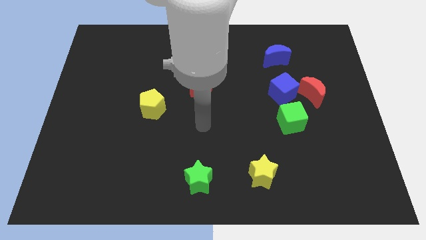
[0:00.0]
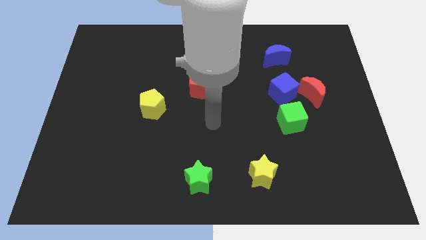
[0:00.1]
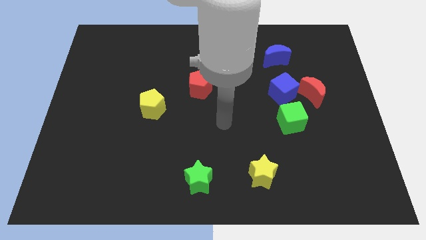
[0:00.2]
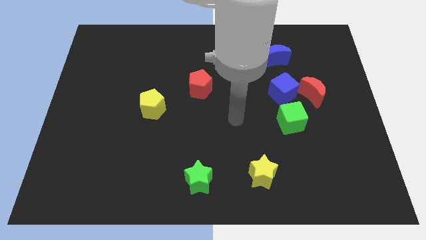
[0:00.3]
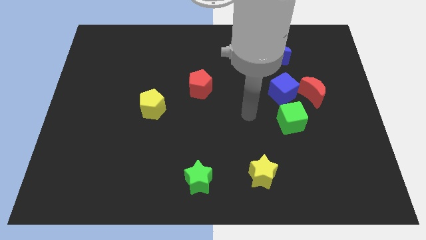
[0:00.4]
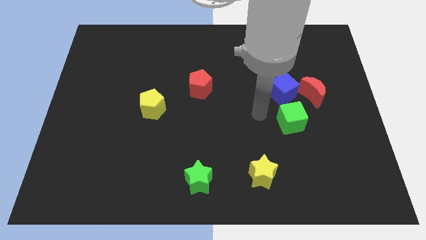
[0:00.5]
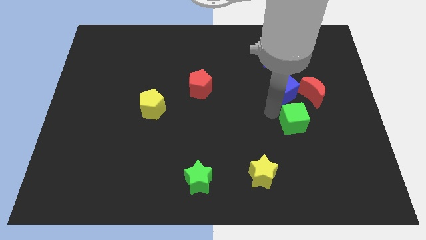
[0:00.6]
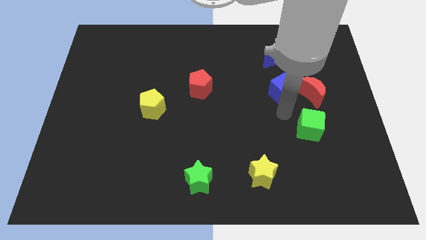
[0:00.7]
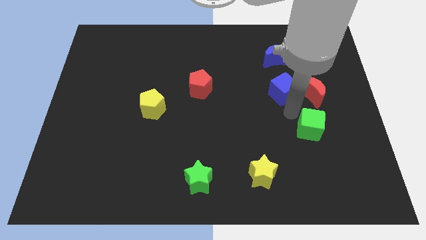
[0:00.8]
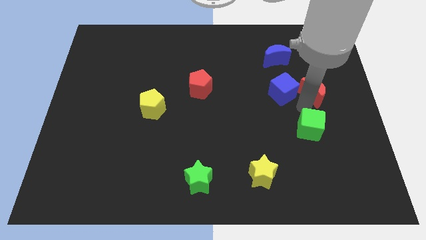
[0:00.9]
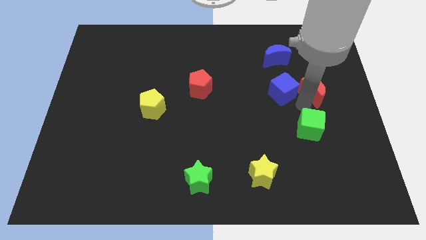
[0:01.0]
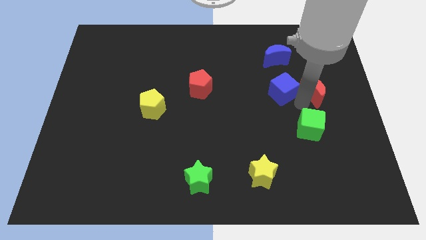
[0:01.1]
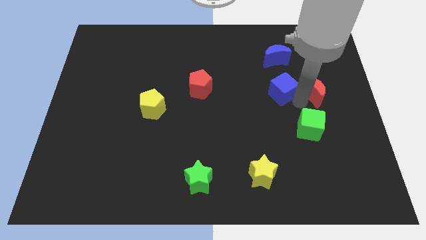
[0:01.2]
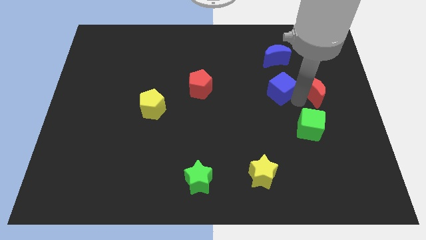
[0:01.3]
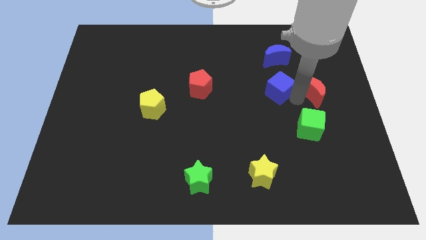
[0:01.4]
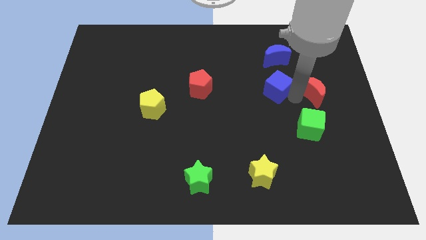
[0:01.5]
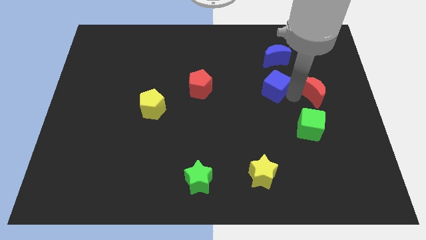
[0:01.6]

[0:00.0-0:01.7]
separate the blue cube from the red moon and green cube

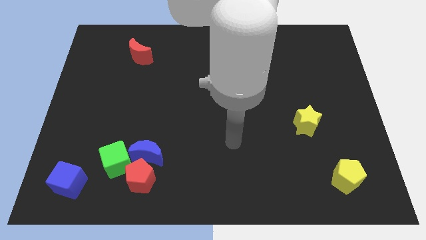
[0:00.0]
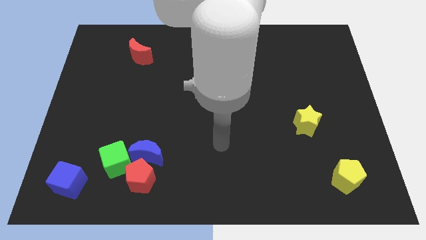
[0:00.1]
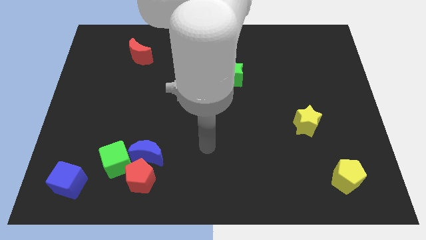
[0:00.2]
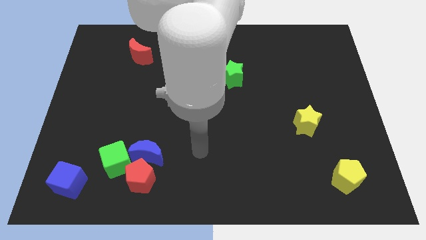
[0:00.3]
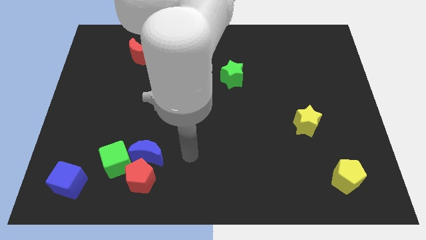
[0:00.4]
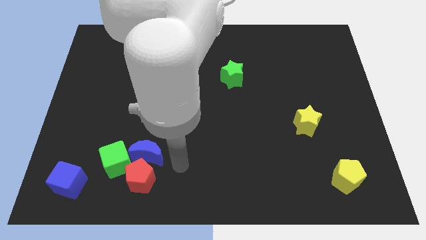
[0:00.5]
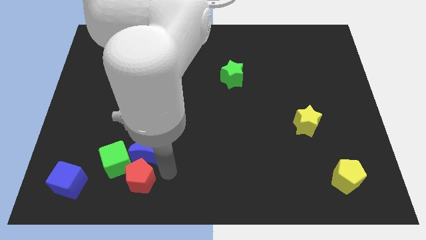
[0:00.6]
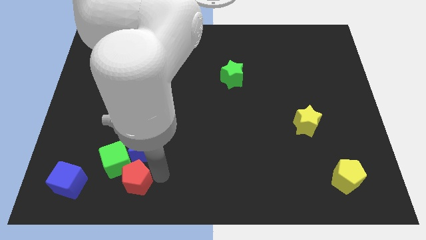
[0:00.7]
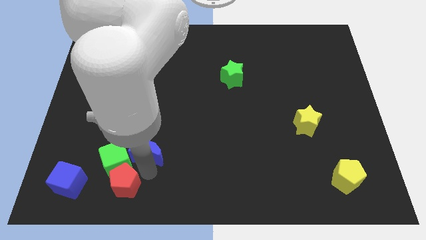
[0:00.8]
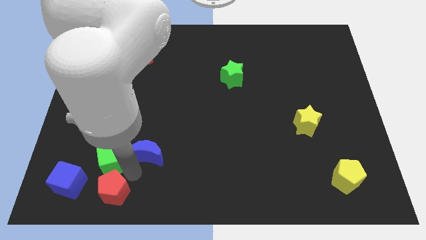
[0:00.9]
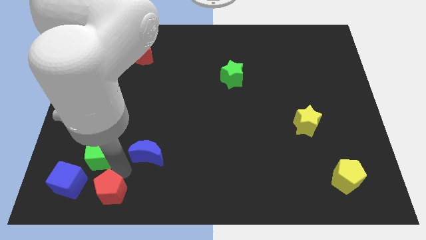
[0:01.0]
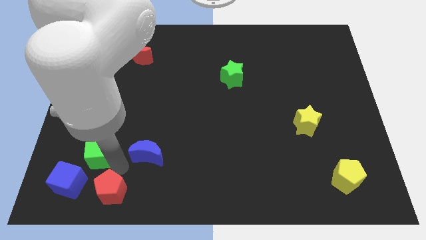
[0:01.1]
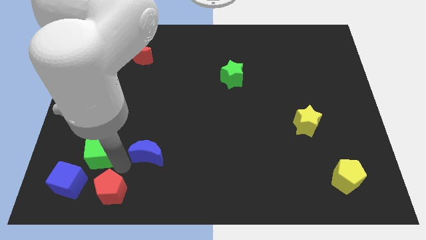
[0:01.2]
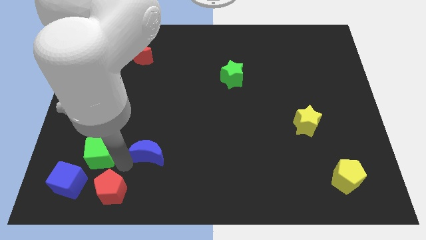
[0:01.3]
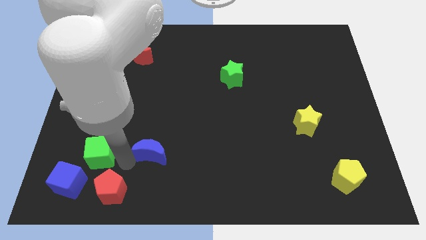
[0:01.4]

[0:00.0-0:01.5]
move the blue moon away from the red pentagon and green cube

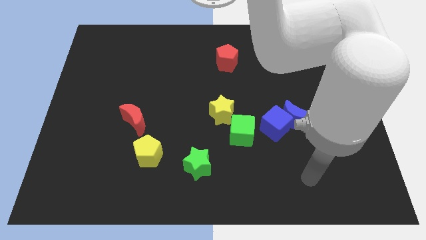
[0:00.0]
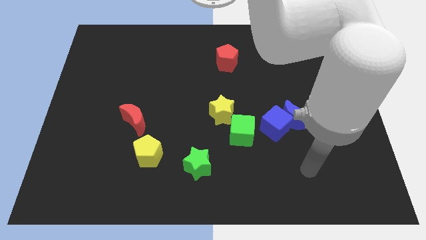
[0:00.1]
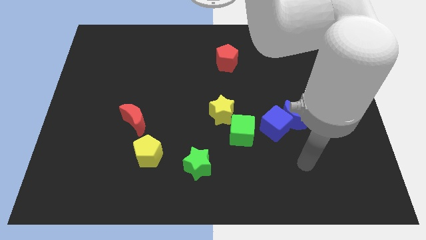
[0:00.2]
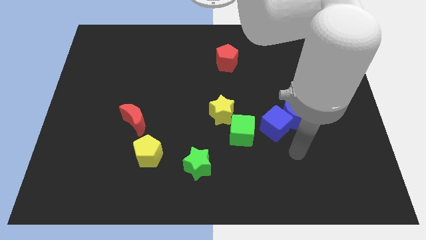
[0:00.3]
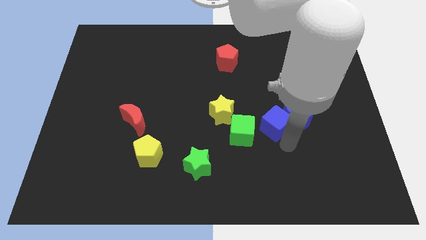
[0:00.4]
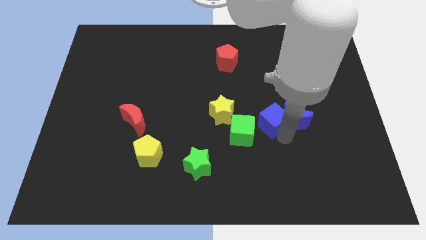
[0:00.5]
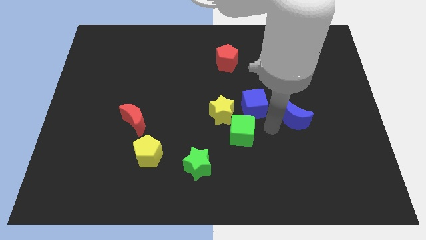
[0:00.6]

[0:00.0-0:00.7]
separate the blue moon from the blue cube

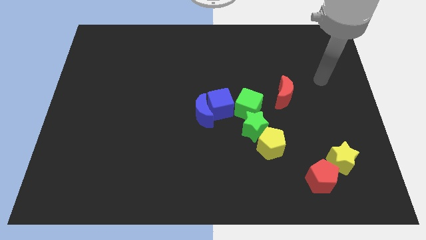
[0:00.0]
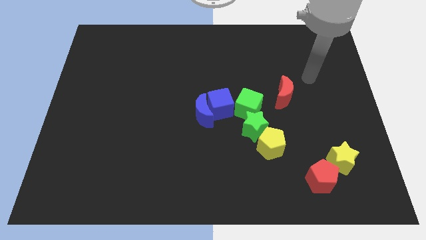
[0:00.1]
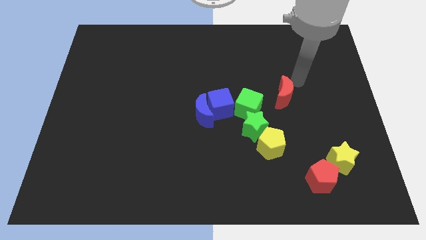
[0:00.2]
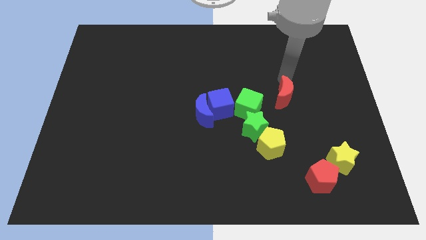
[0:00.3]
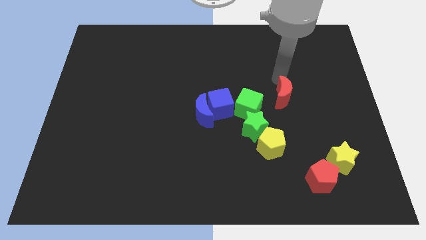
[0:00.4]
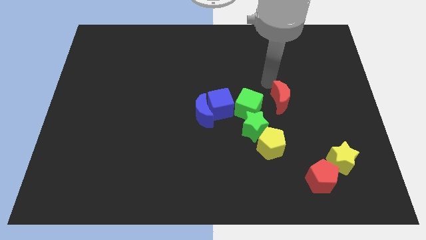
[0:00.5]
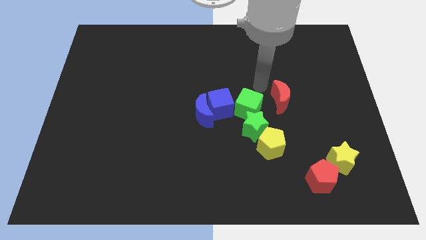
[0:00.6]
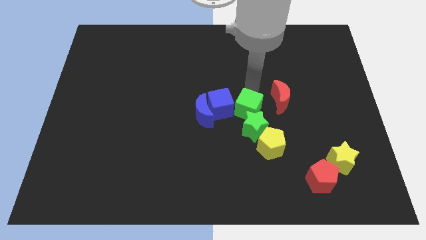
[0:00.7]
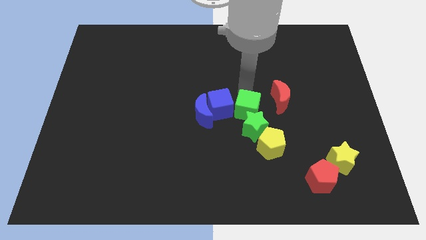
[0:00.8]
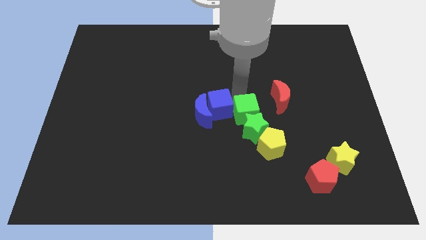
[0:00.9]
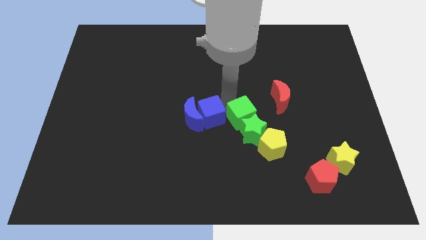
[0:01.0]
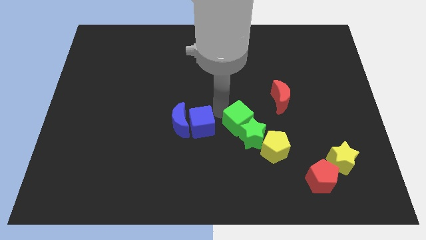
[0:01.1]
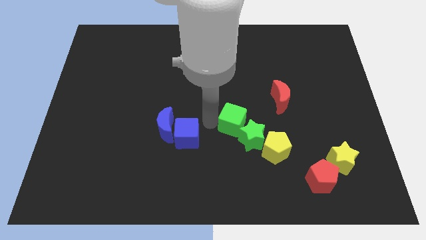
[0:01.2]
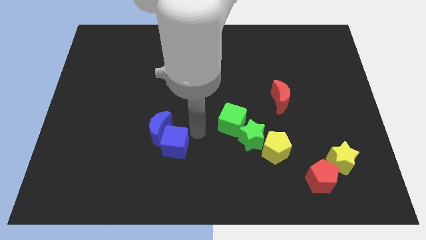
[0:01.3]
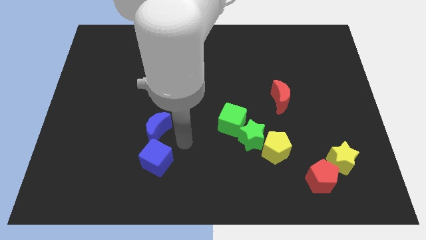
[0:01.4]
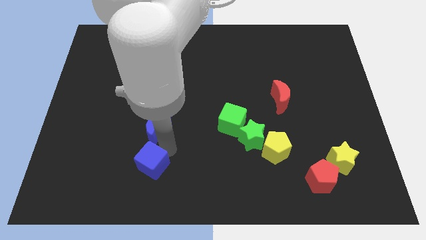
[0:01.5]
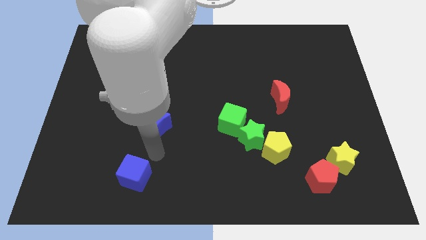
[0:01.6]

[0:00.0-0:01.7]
move the blue moon away from the blue cube

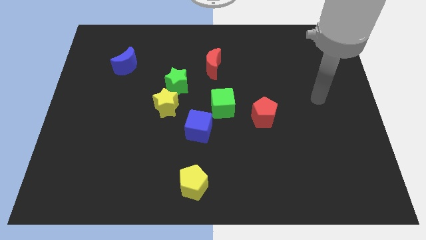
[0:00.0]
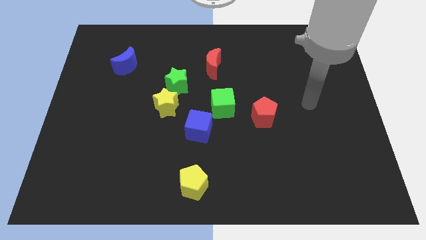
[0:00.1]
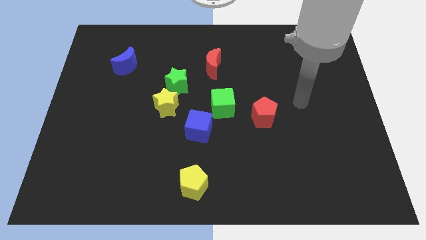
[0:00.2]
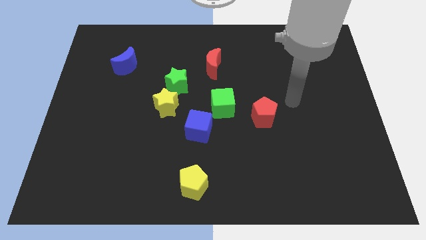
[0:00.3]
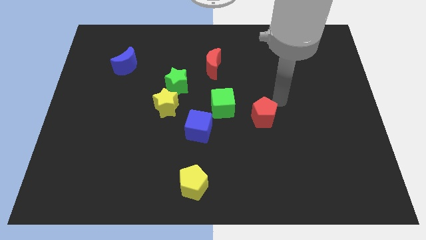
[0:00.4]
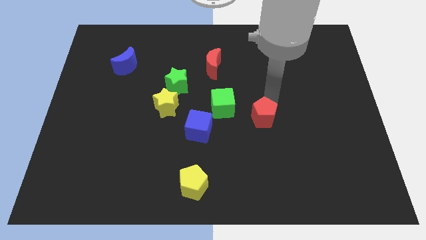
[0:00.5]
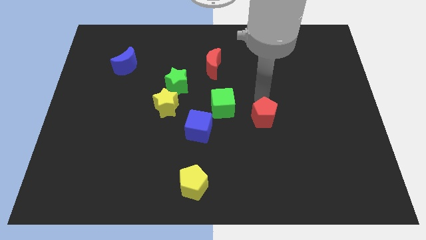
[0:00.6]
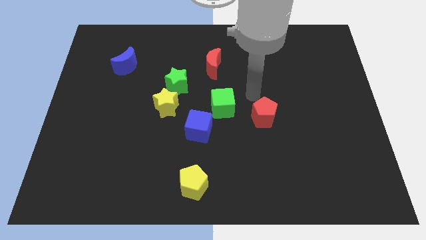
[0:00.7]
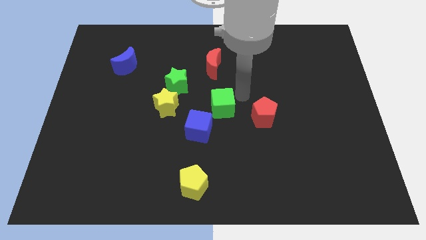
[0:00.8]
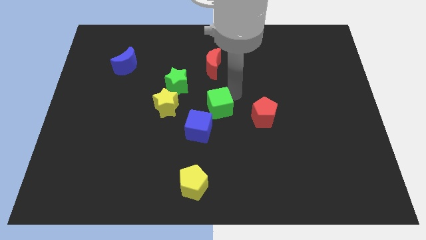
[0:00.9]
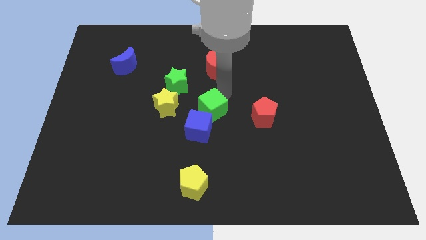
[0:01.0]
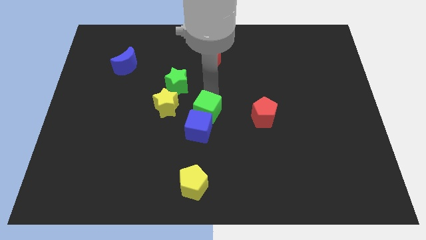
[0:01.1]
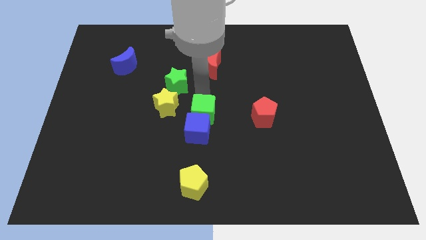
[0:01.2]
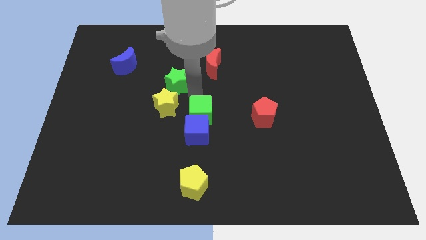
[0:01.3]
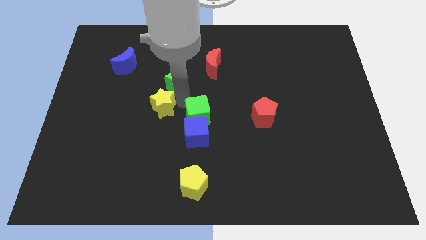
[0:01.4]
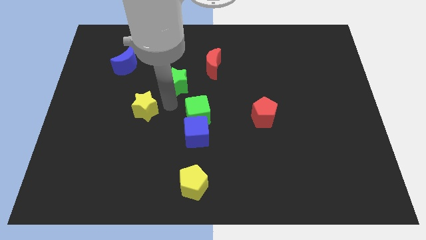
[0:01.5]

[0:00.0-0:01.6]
separate the green star from the yellow star

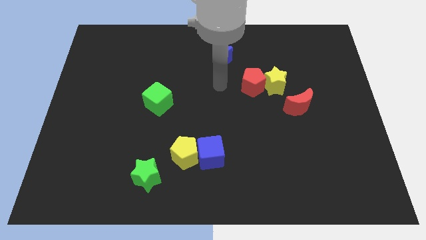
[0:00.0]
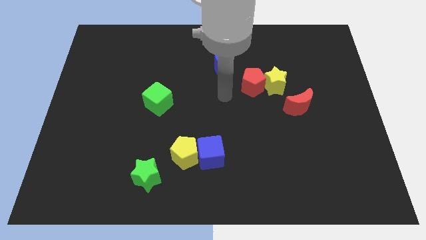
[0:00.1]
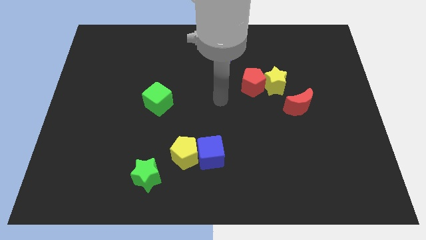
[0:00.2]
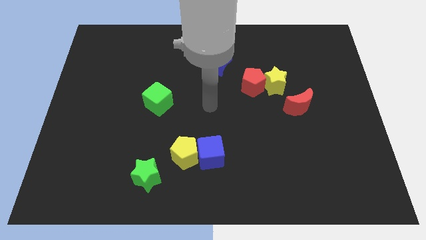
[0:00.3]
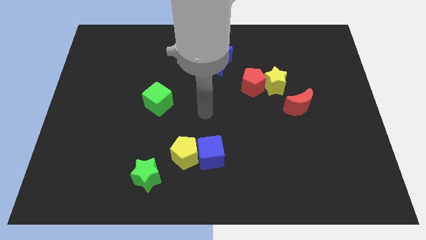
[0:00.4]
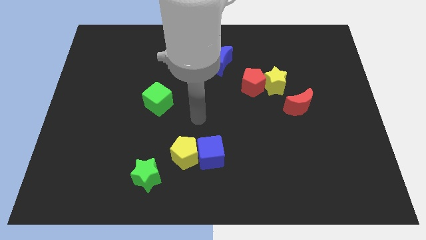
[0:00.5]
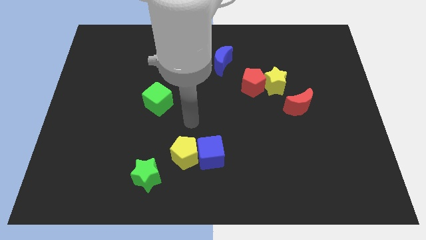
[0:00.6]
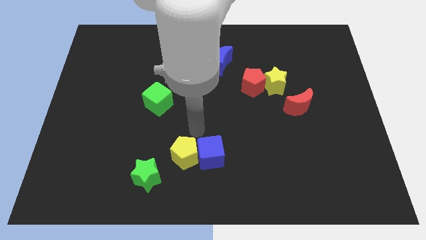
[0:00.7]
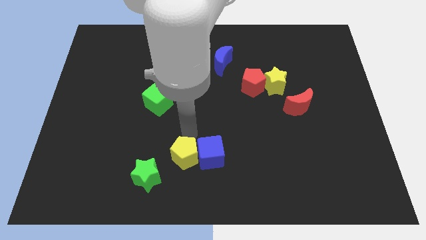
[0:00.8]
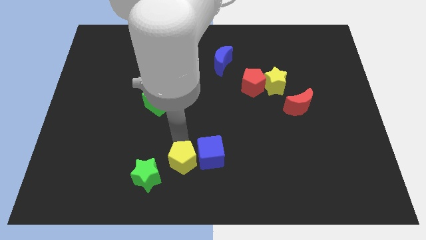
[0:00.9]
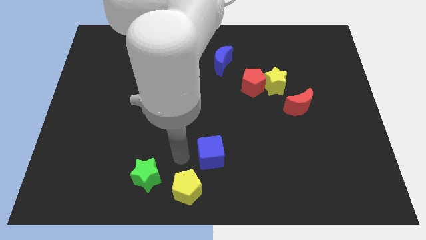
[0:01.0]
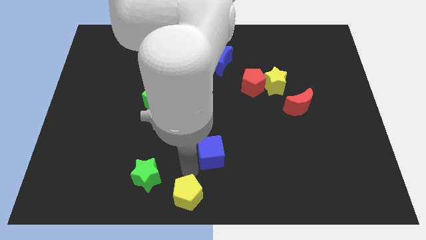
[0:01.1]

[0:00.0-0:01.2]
pull the blue cube apart from the yellow pentagon

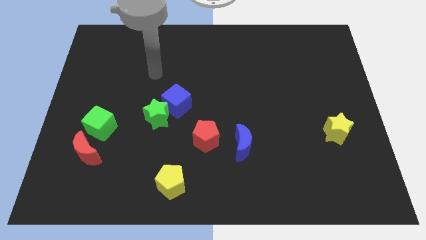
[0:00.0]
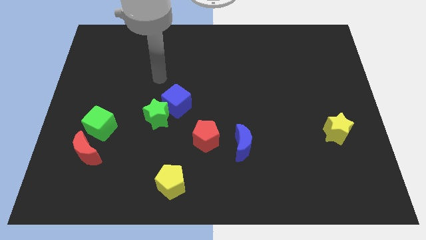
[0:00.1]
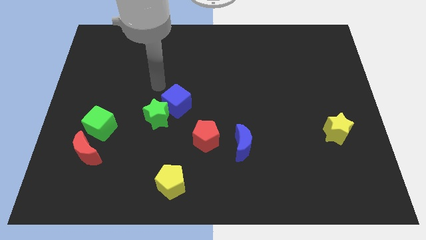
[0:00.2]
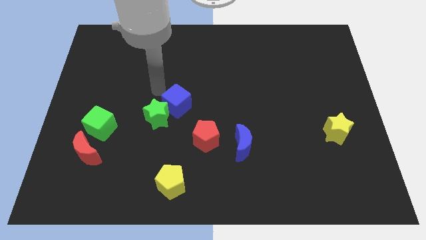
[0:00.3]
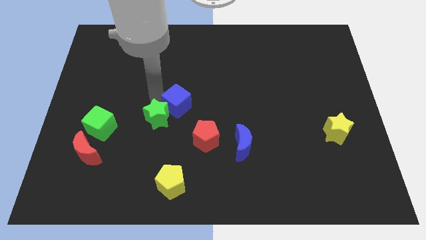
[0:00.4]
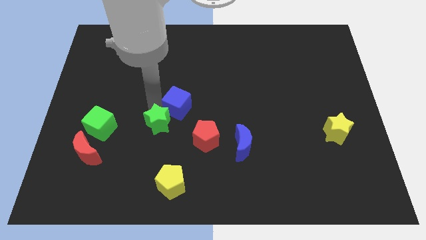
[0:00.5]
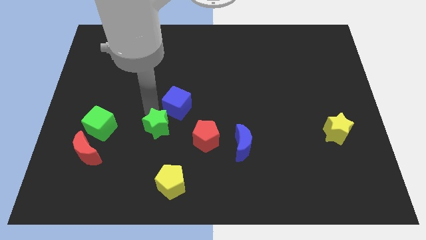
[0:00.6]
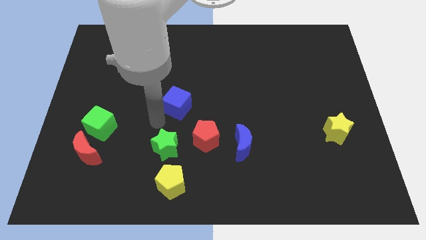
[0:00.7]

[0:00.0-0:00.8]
move the blue cube away from the green star

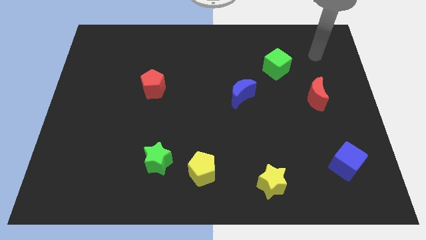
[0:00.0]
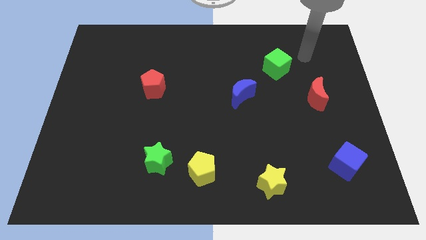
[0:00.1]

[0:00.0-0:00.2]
move the green star away from the yellow pentagon
